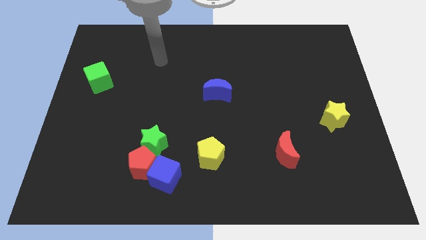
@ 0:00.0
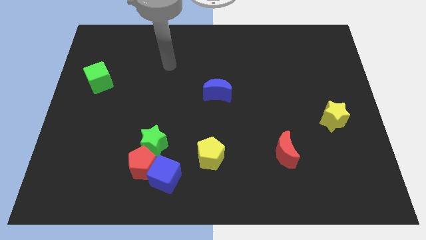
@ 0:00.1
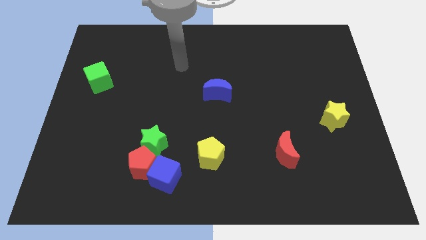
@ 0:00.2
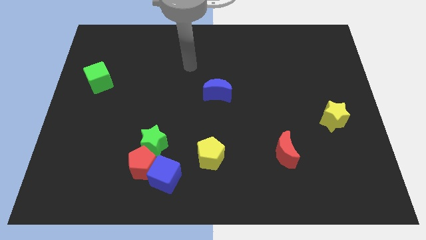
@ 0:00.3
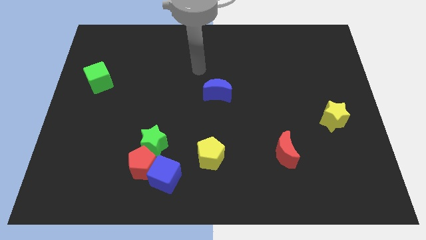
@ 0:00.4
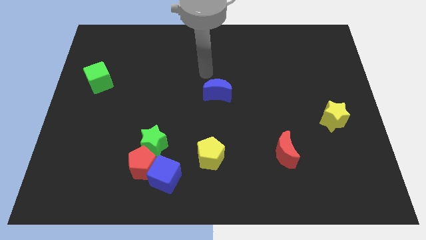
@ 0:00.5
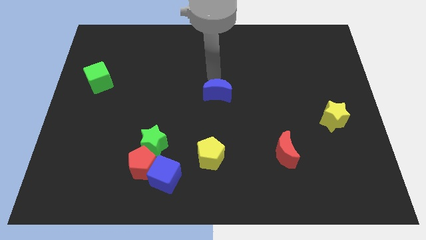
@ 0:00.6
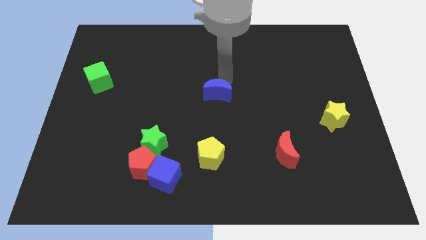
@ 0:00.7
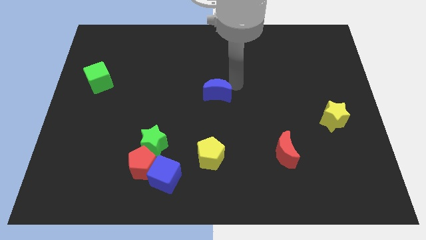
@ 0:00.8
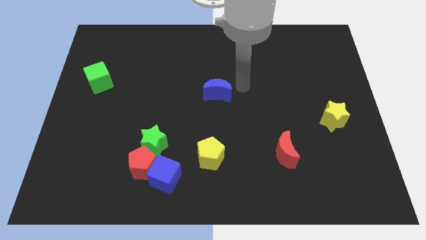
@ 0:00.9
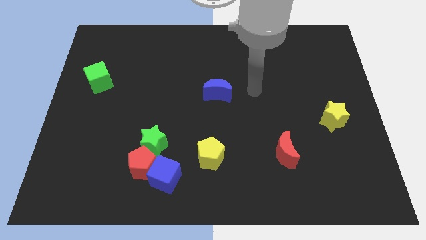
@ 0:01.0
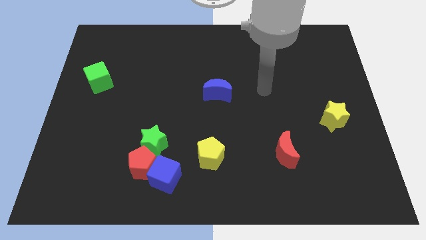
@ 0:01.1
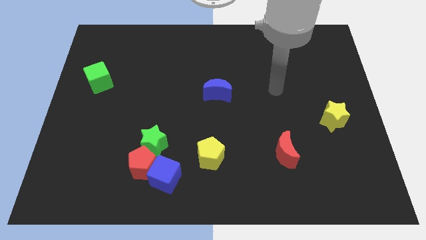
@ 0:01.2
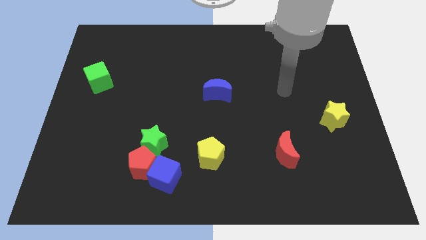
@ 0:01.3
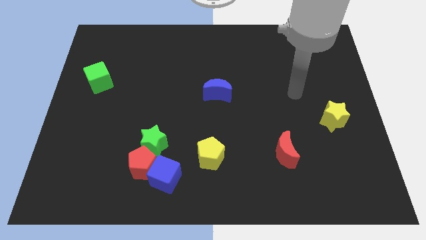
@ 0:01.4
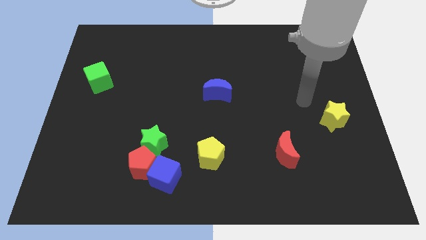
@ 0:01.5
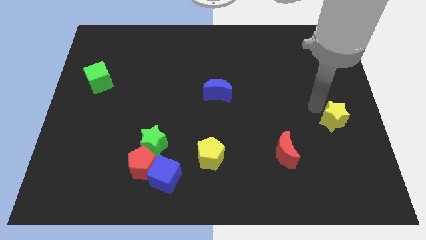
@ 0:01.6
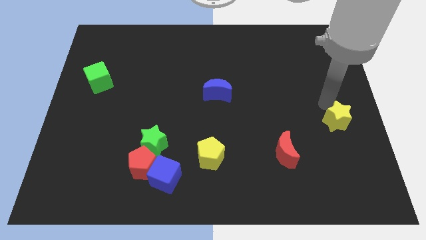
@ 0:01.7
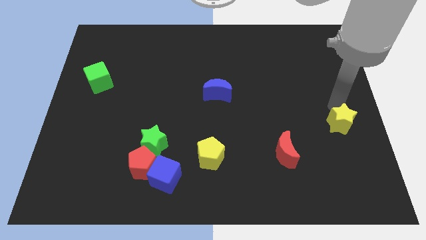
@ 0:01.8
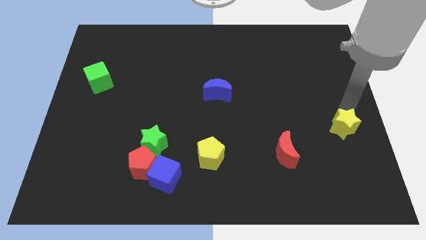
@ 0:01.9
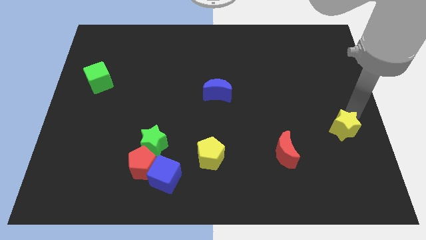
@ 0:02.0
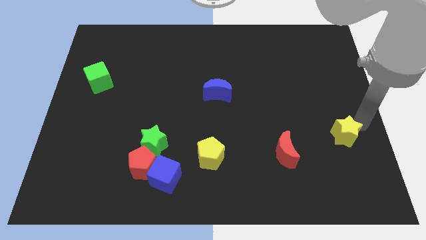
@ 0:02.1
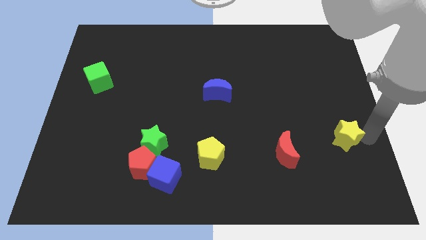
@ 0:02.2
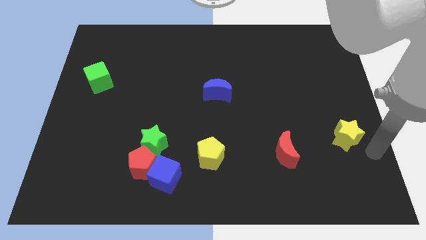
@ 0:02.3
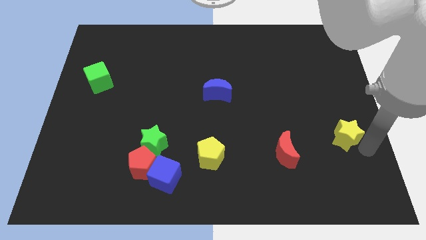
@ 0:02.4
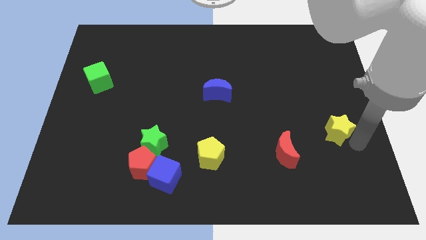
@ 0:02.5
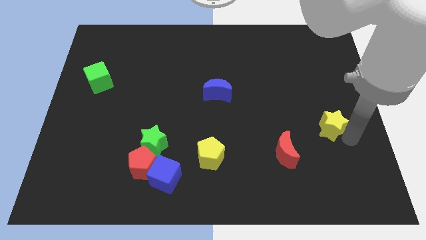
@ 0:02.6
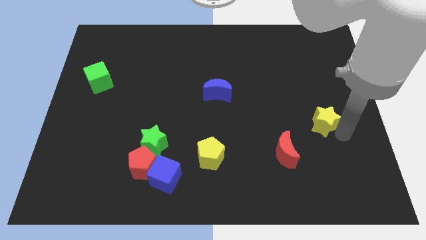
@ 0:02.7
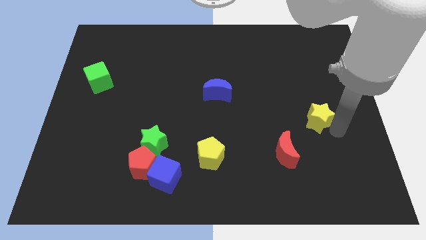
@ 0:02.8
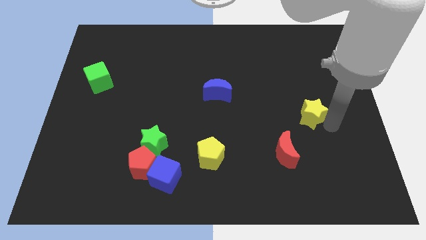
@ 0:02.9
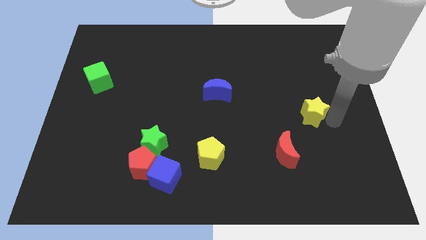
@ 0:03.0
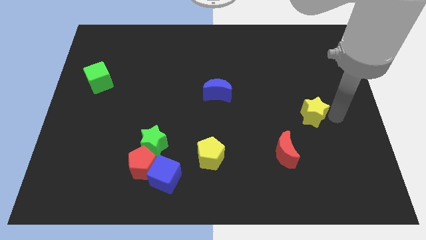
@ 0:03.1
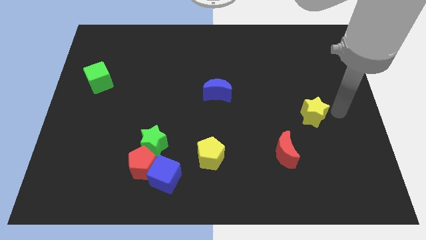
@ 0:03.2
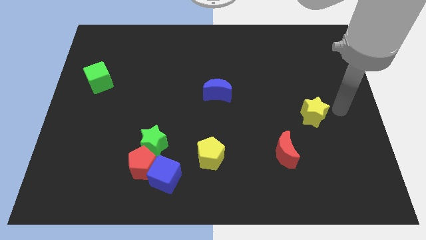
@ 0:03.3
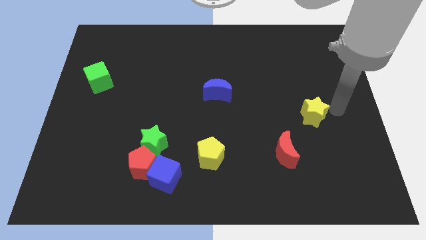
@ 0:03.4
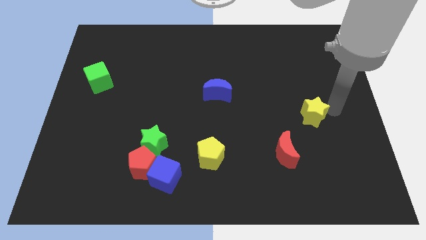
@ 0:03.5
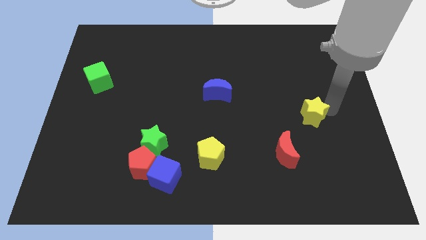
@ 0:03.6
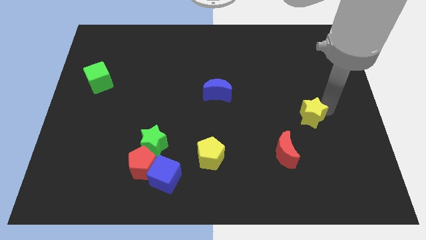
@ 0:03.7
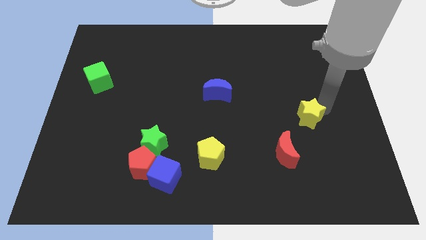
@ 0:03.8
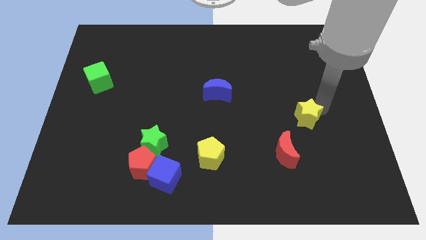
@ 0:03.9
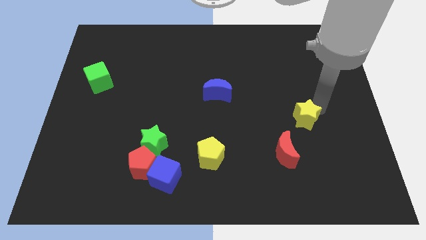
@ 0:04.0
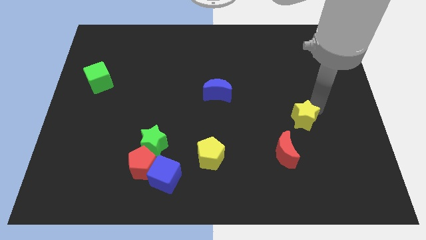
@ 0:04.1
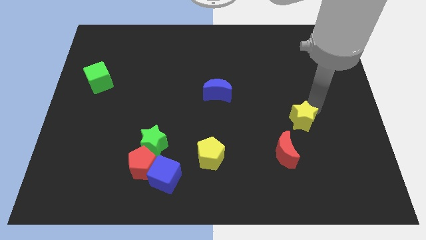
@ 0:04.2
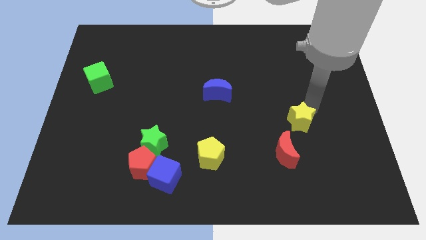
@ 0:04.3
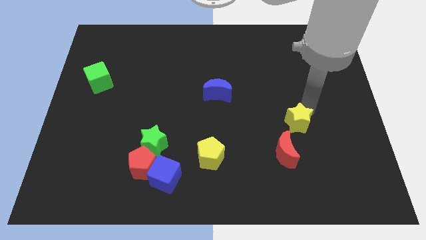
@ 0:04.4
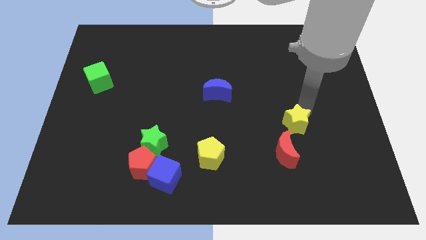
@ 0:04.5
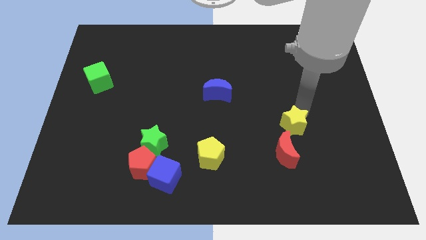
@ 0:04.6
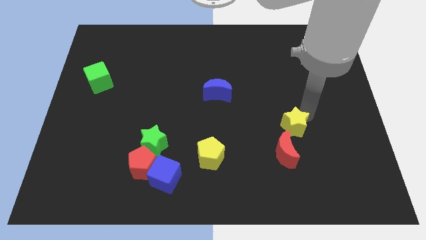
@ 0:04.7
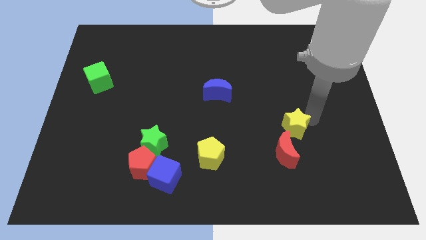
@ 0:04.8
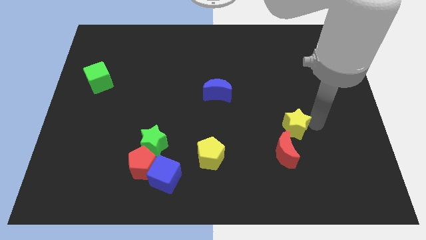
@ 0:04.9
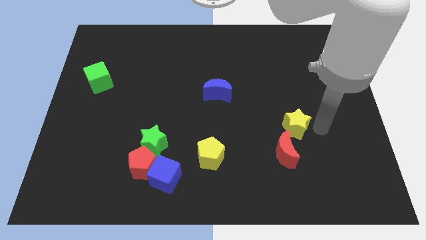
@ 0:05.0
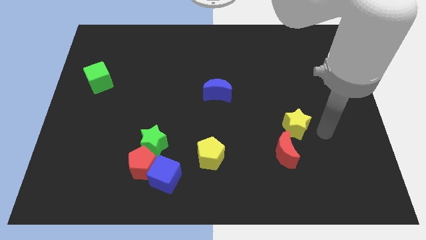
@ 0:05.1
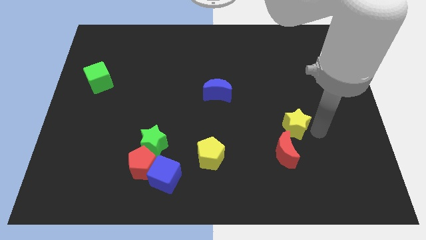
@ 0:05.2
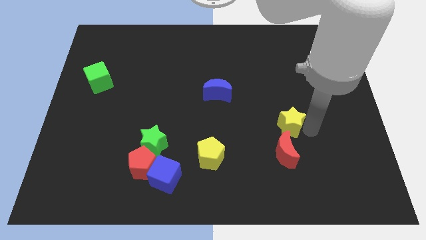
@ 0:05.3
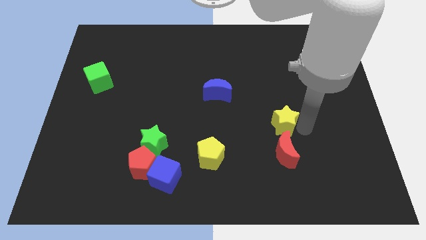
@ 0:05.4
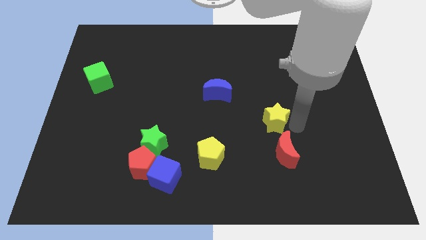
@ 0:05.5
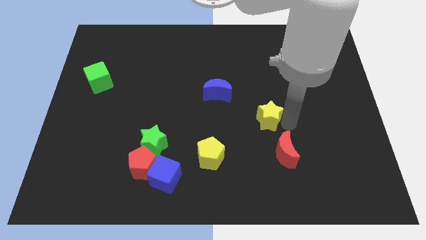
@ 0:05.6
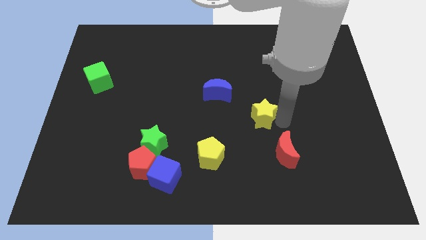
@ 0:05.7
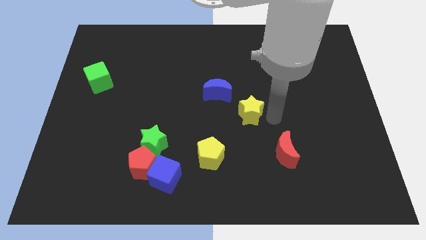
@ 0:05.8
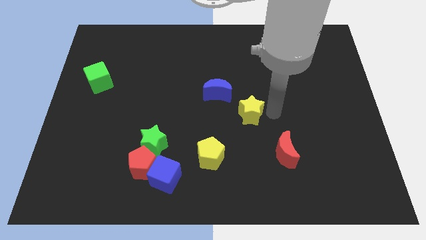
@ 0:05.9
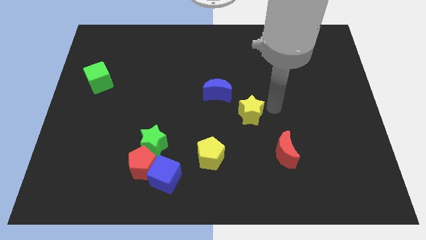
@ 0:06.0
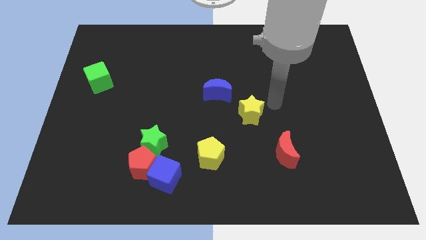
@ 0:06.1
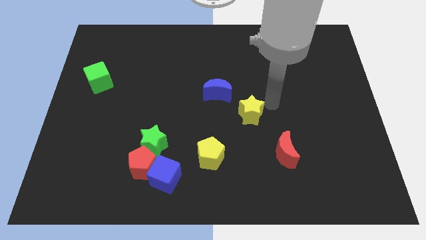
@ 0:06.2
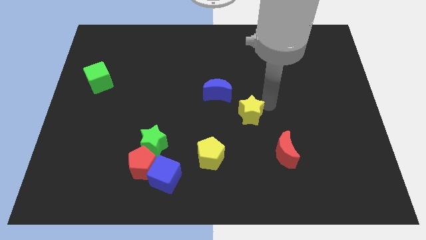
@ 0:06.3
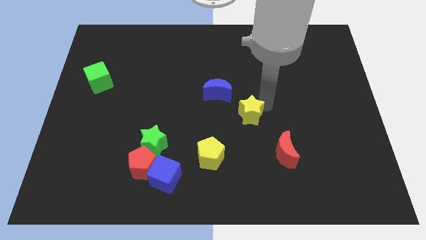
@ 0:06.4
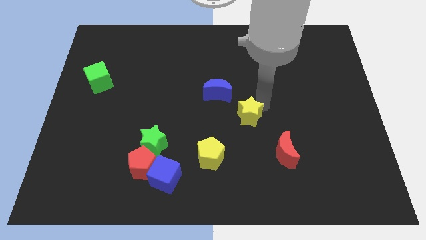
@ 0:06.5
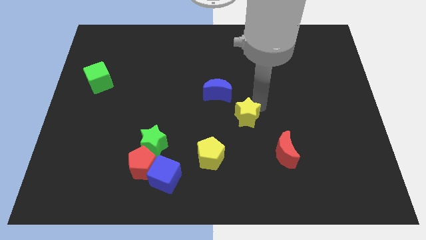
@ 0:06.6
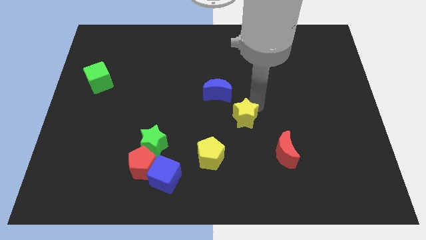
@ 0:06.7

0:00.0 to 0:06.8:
slide the yellow star to the left

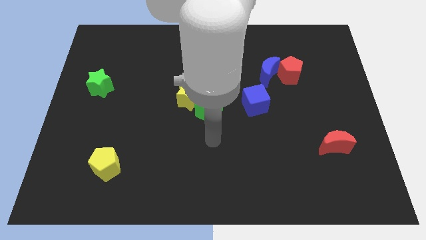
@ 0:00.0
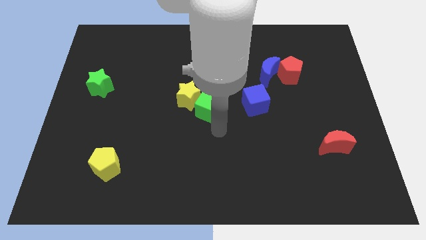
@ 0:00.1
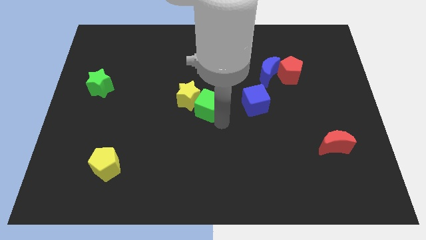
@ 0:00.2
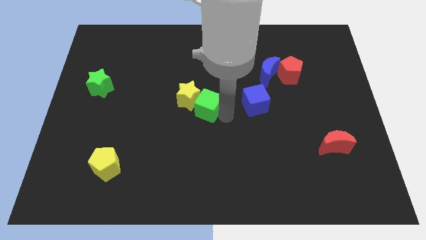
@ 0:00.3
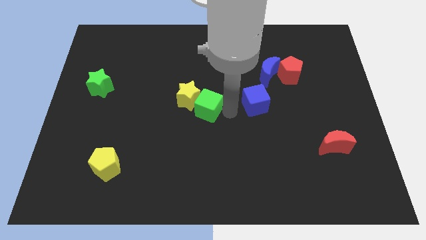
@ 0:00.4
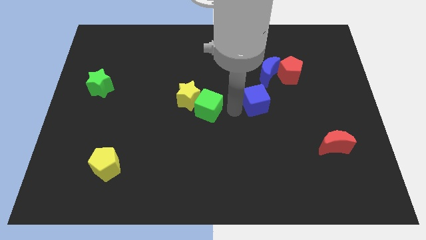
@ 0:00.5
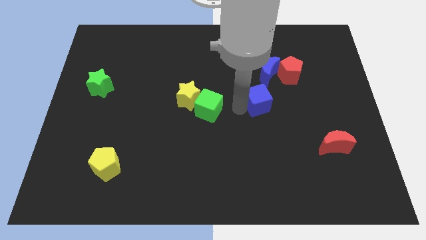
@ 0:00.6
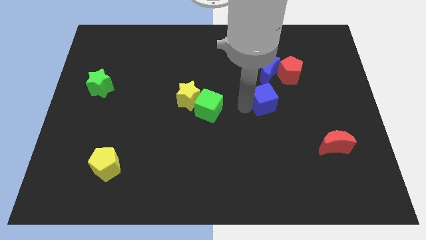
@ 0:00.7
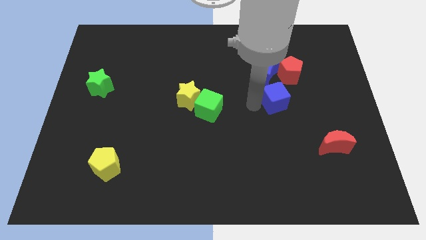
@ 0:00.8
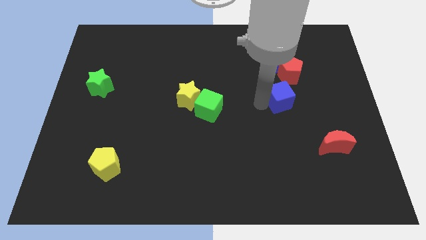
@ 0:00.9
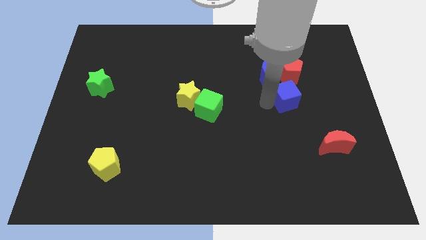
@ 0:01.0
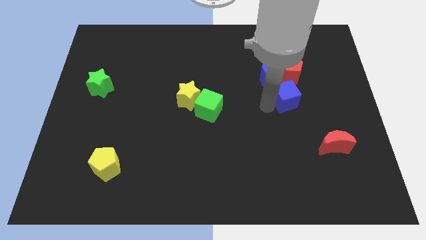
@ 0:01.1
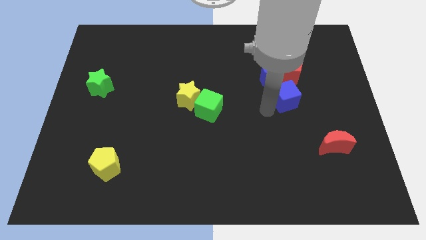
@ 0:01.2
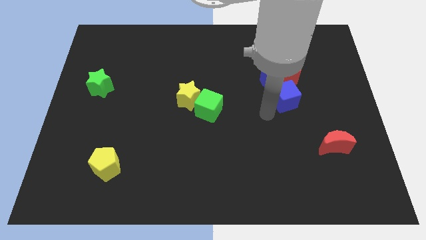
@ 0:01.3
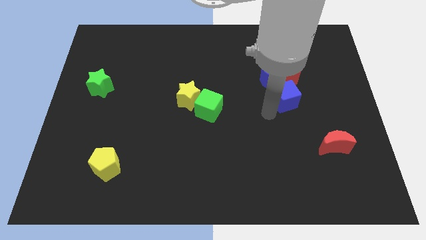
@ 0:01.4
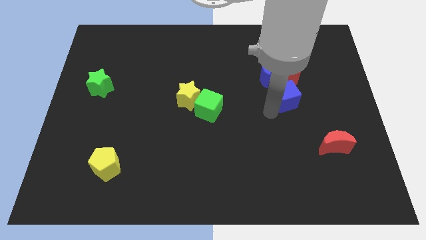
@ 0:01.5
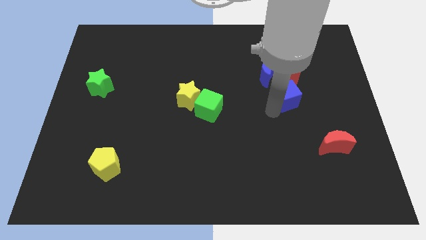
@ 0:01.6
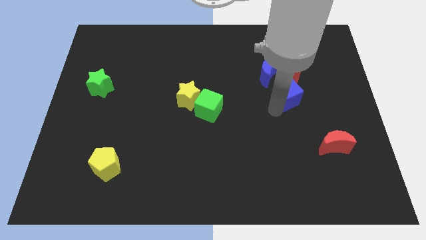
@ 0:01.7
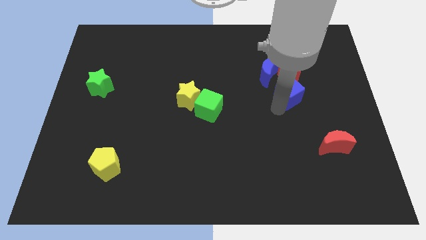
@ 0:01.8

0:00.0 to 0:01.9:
slightly slide the blue cube diagonally upwards and right
